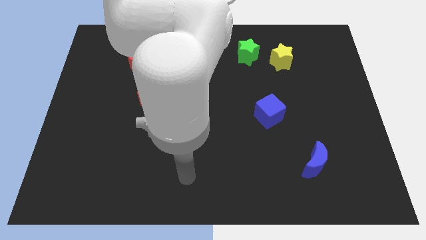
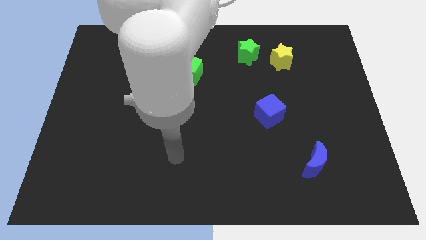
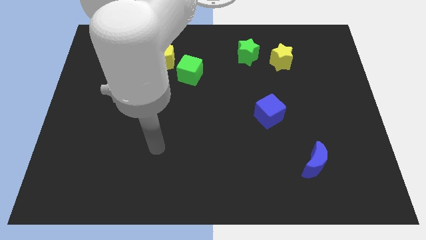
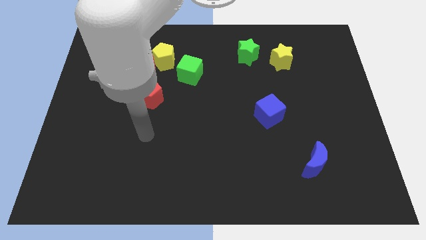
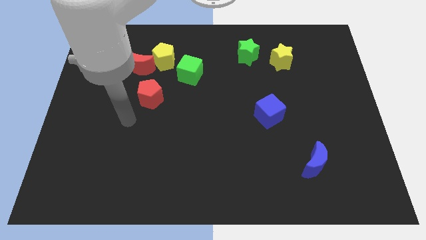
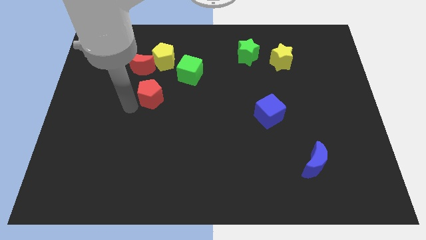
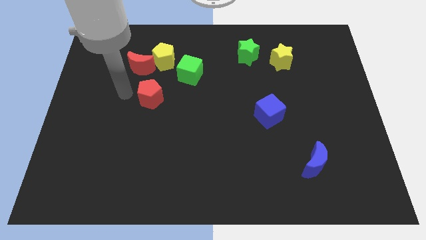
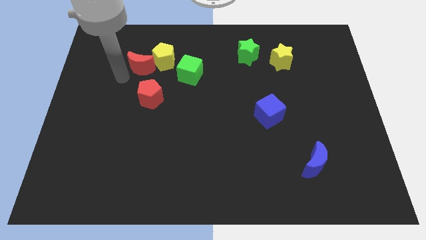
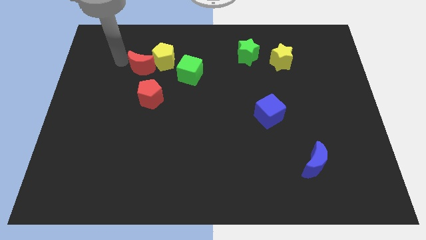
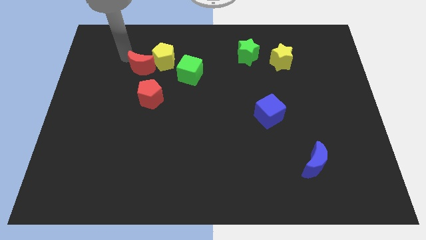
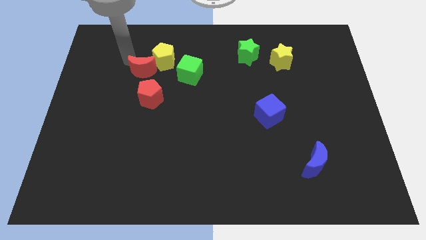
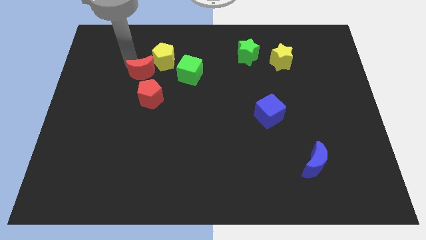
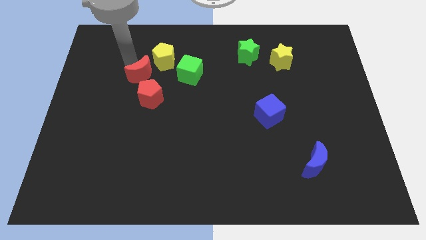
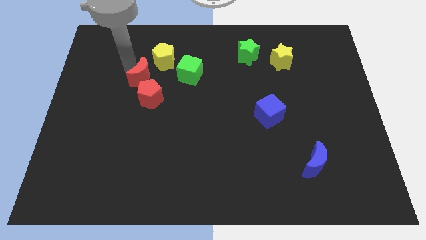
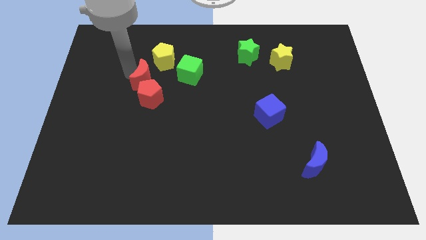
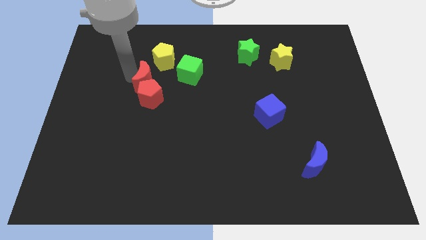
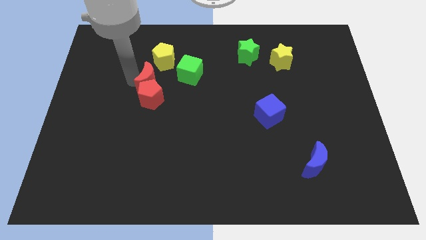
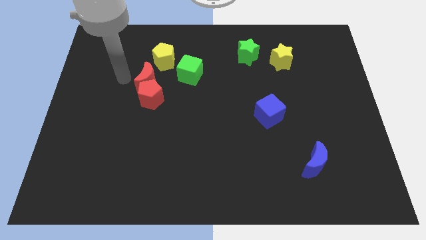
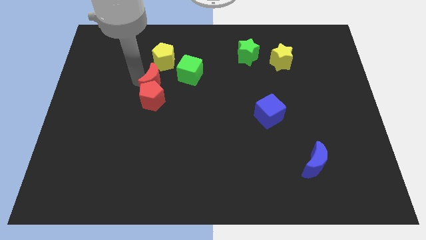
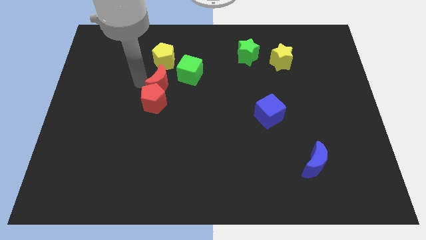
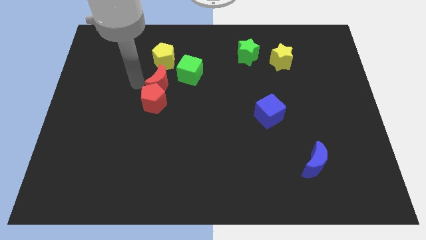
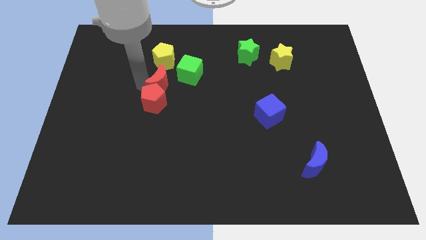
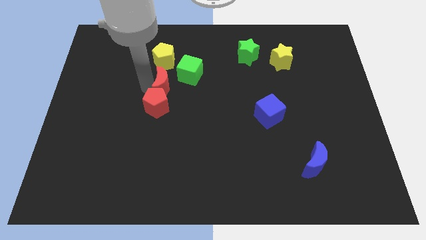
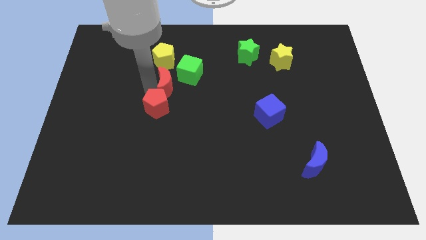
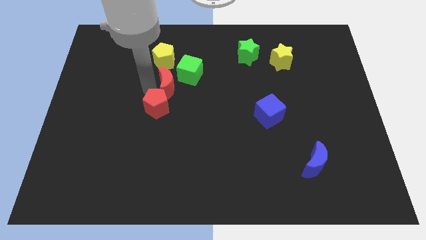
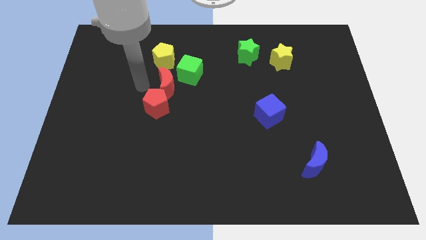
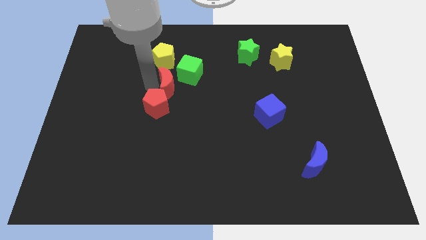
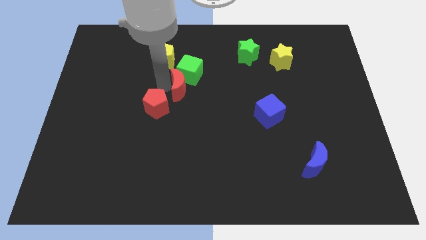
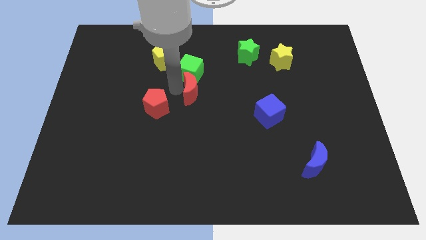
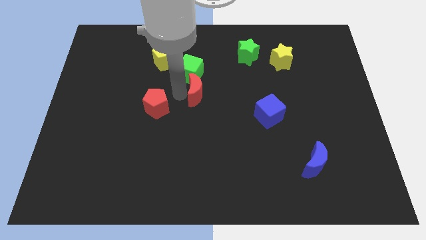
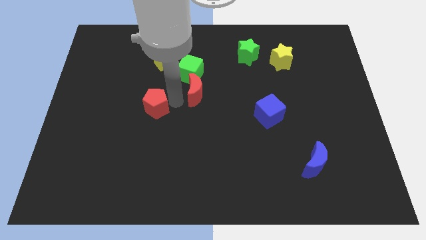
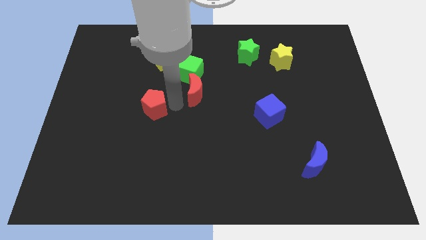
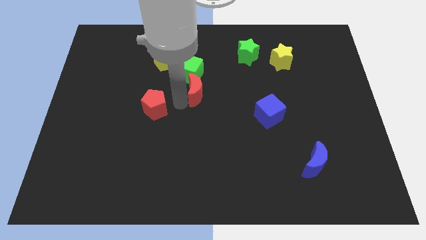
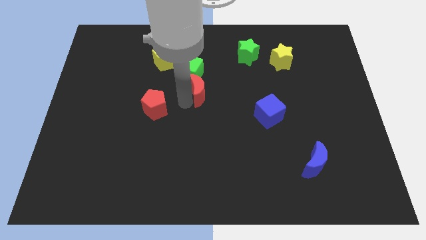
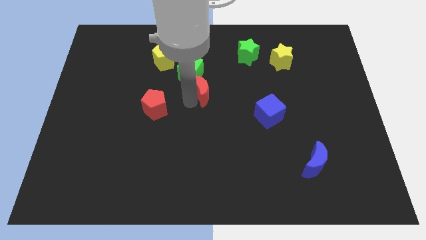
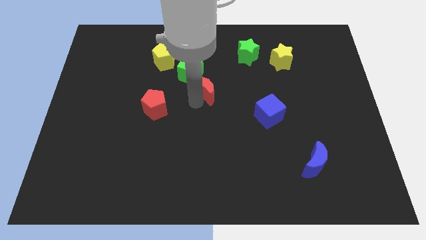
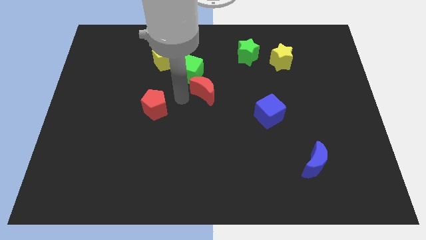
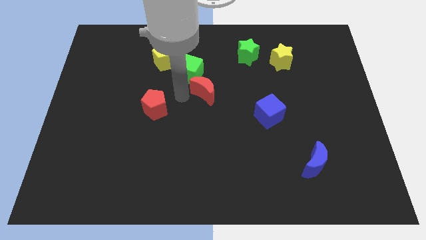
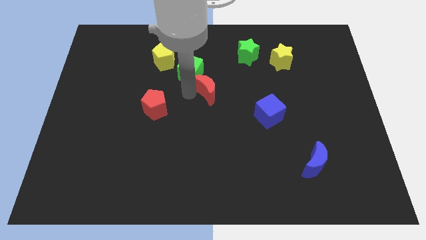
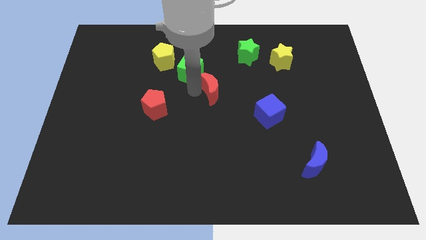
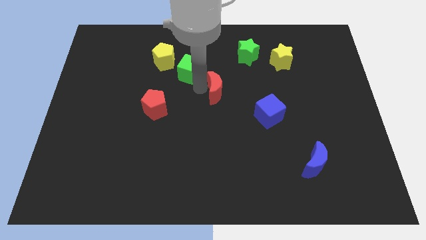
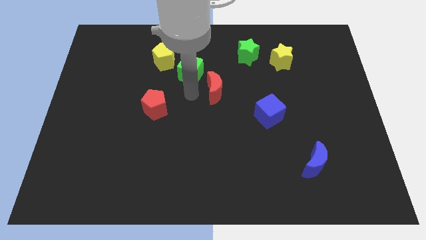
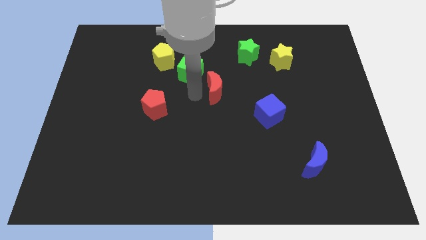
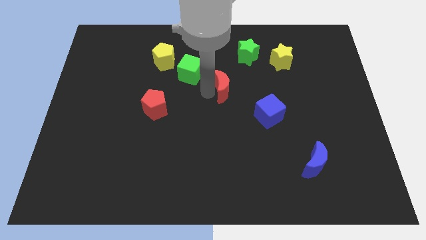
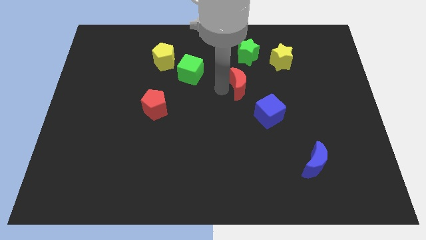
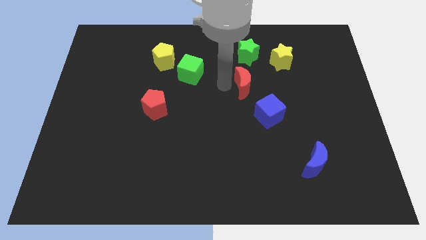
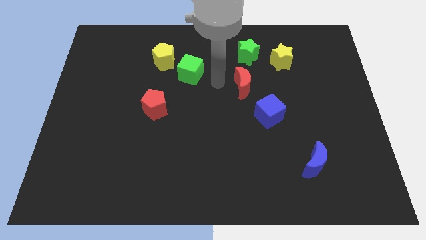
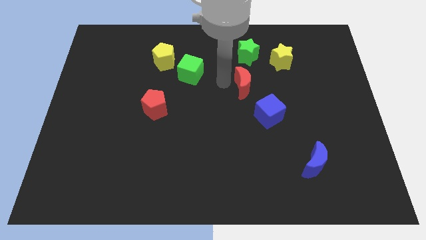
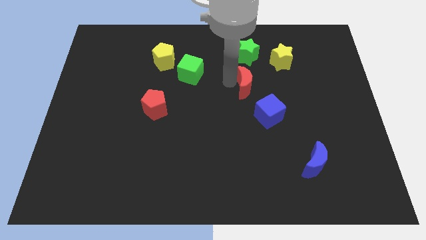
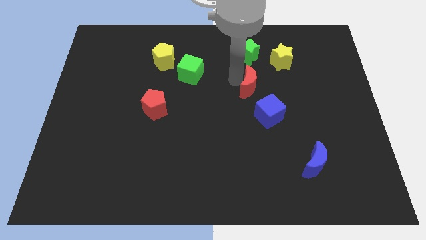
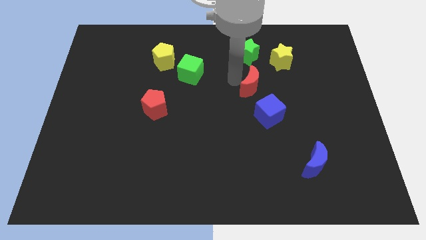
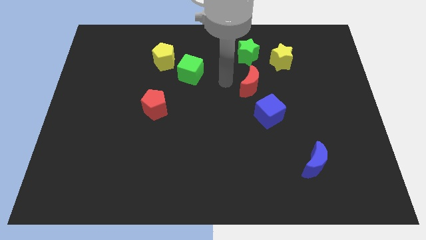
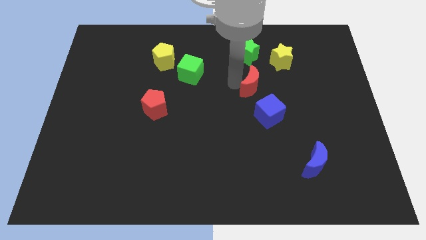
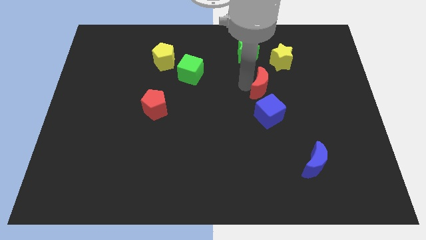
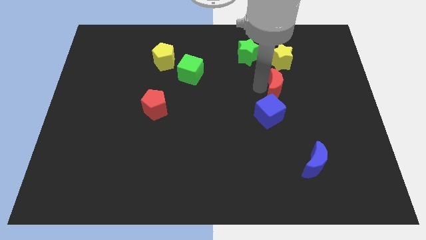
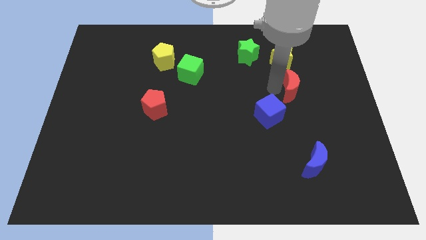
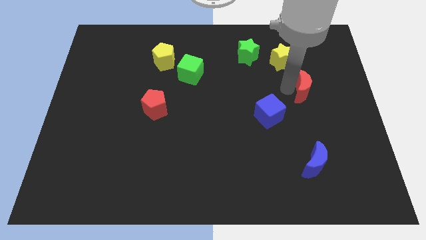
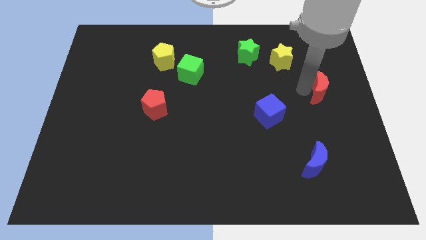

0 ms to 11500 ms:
slide the red moon to the right side
